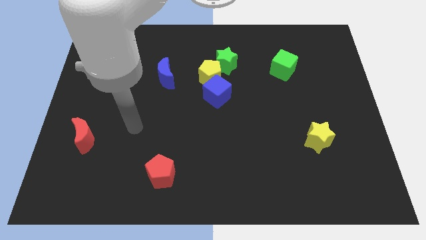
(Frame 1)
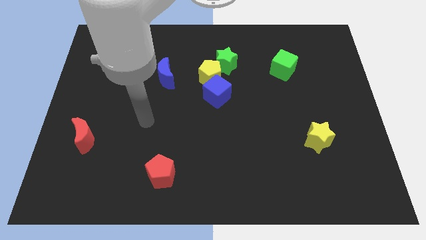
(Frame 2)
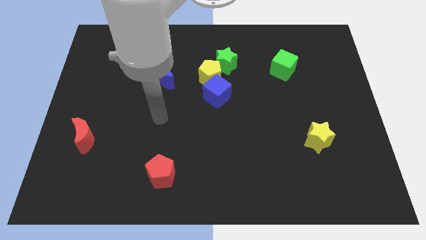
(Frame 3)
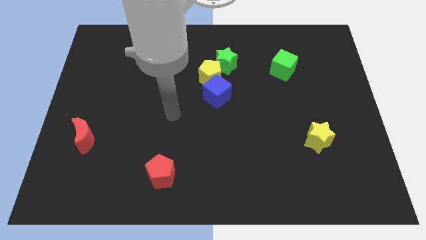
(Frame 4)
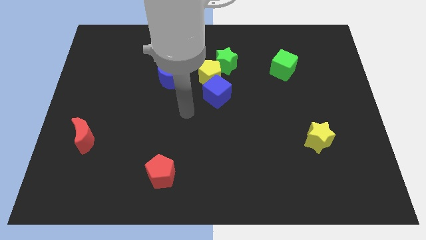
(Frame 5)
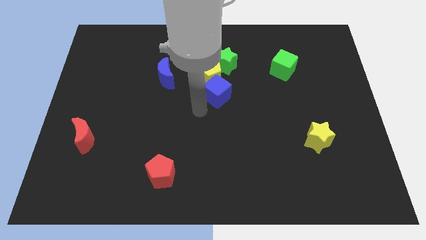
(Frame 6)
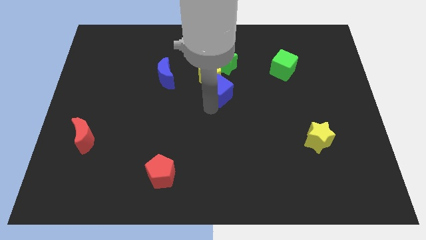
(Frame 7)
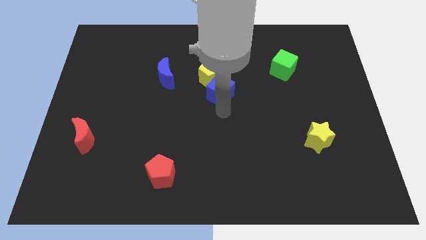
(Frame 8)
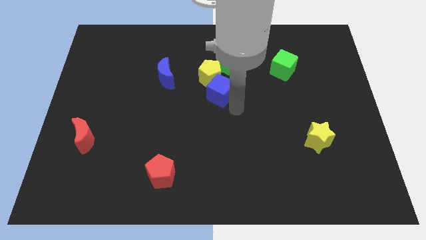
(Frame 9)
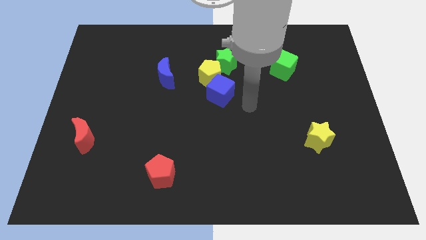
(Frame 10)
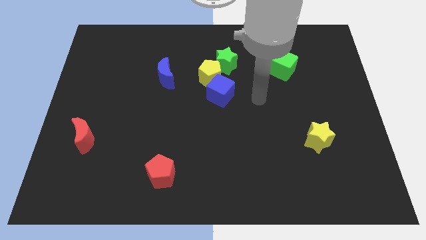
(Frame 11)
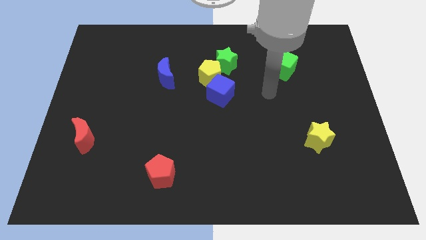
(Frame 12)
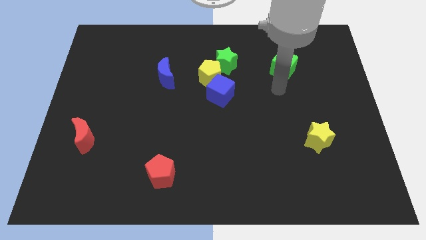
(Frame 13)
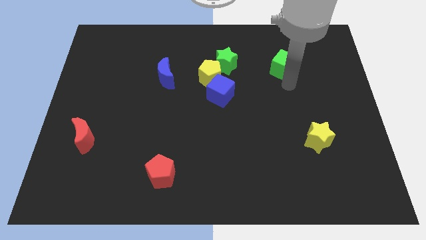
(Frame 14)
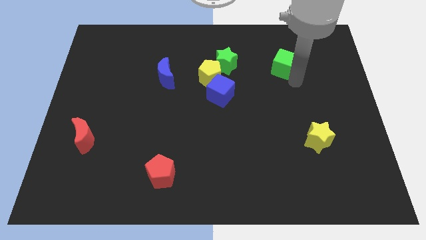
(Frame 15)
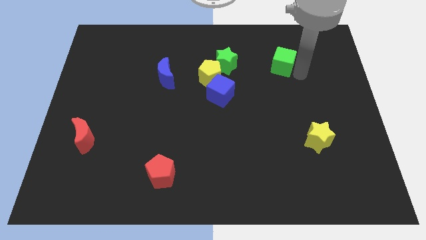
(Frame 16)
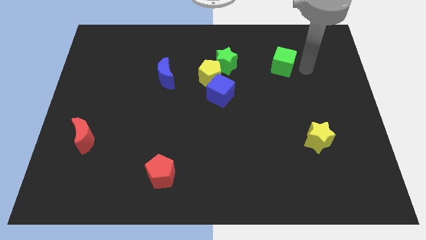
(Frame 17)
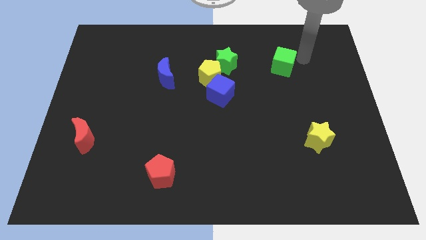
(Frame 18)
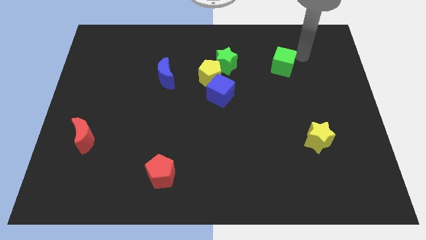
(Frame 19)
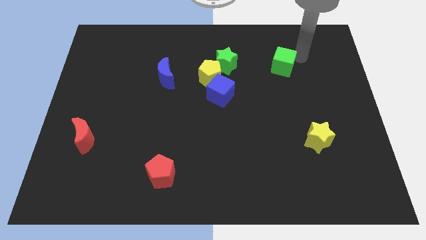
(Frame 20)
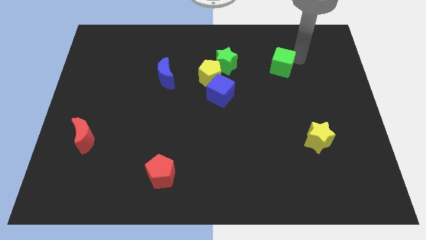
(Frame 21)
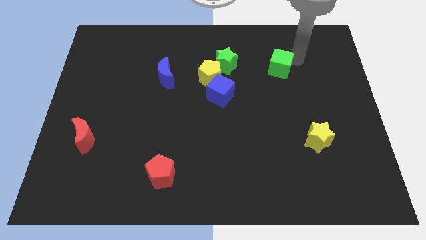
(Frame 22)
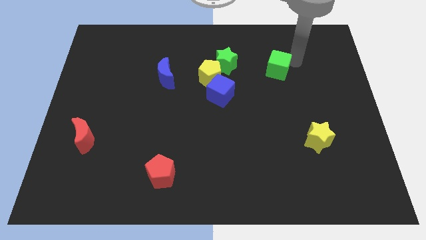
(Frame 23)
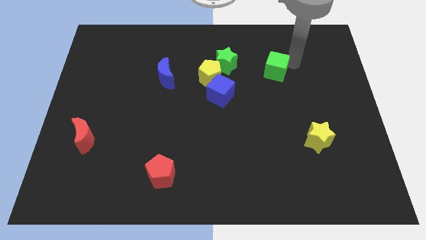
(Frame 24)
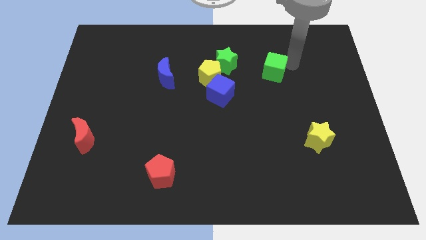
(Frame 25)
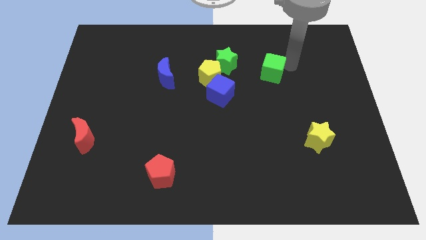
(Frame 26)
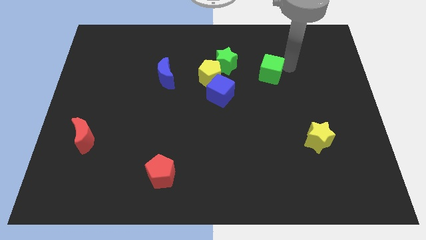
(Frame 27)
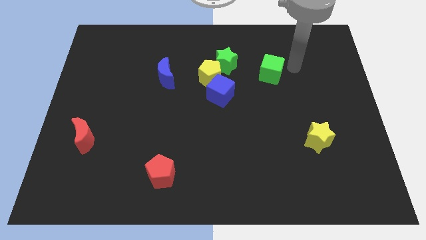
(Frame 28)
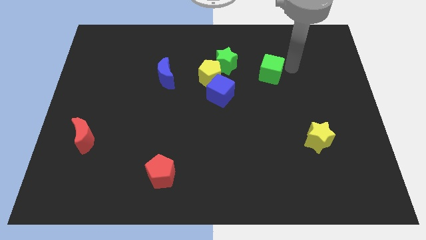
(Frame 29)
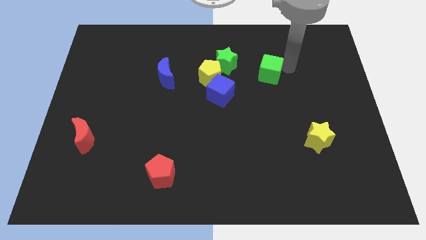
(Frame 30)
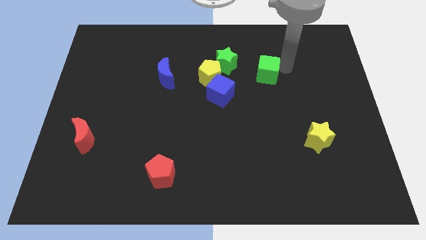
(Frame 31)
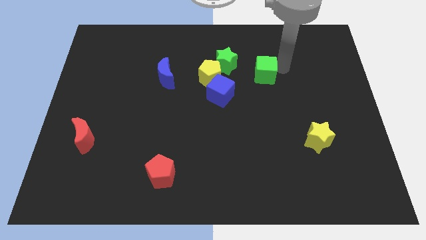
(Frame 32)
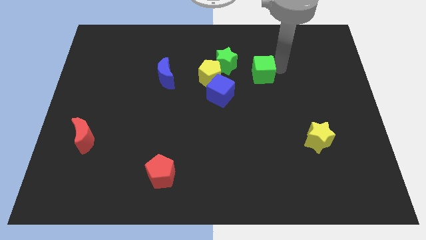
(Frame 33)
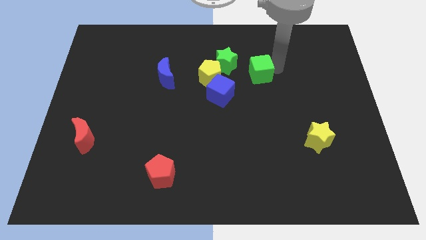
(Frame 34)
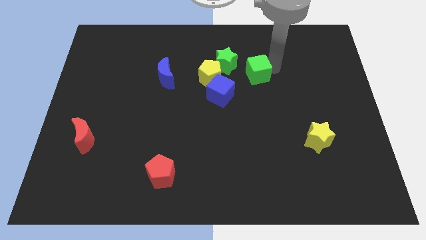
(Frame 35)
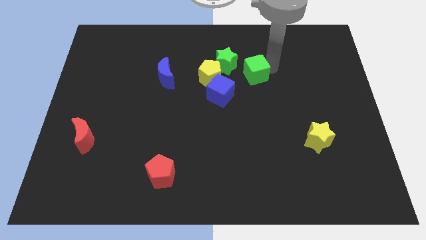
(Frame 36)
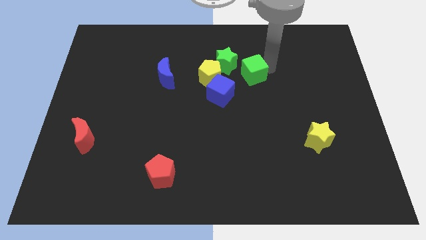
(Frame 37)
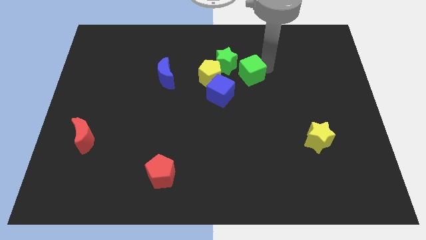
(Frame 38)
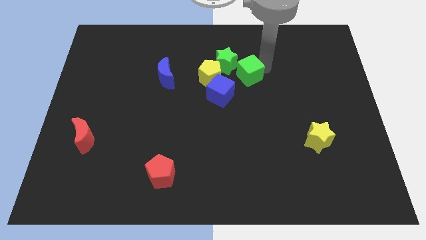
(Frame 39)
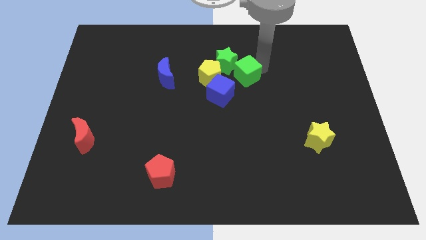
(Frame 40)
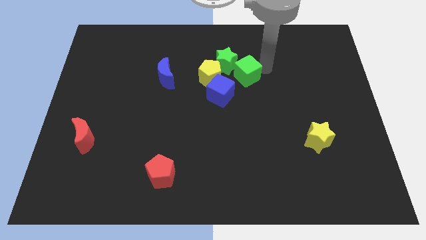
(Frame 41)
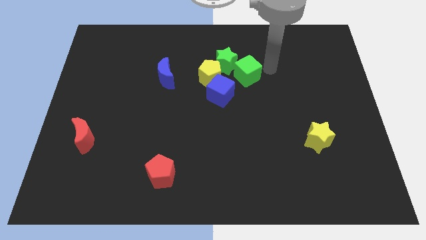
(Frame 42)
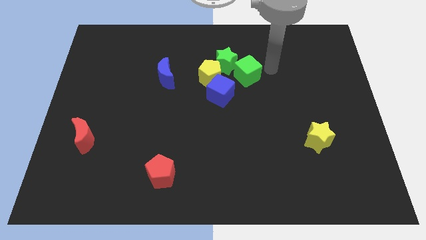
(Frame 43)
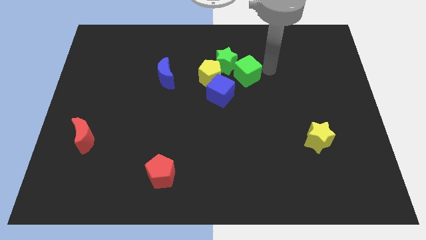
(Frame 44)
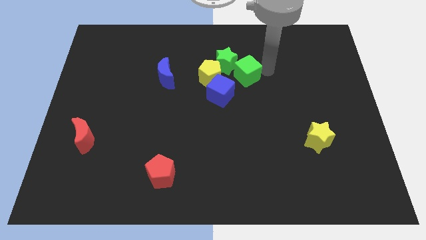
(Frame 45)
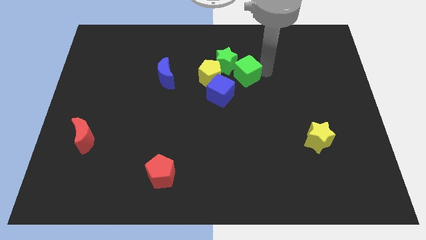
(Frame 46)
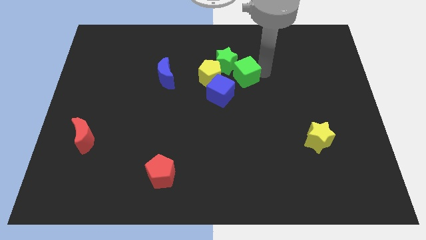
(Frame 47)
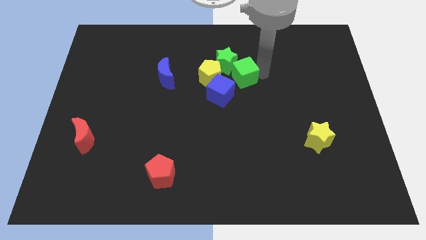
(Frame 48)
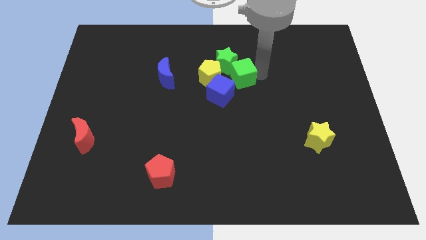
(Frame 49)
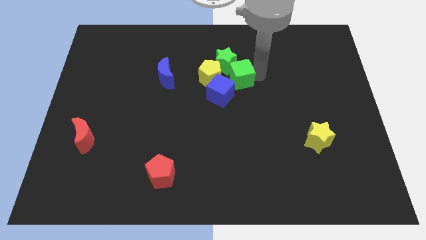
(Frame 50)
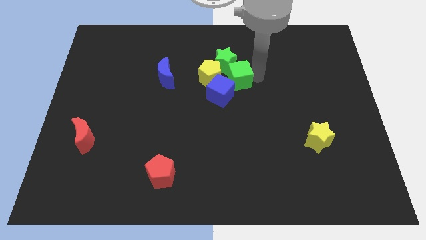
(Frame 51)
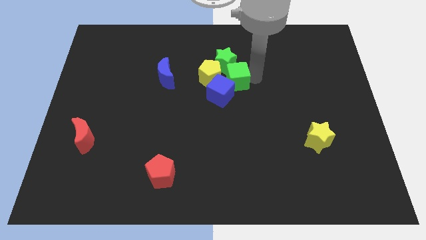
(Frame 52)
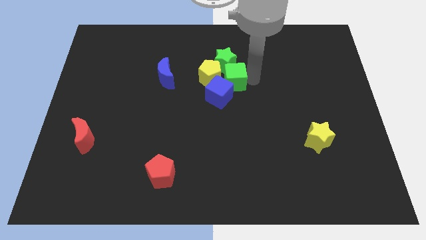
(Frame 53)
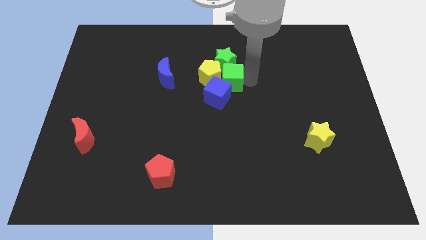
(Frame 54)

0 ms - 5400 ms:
move the green cube close to the yellow pentagon
